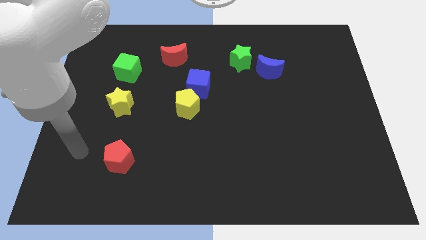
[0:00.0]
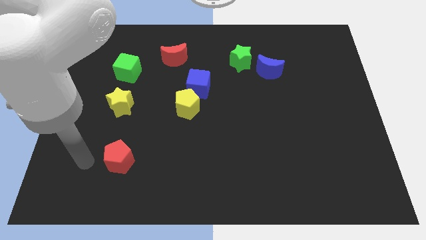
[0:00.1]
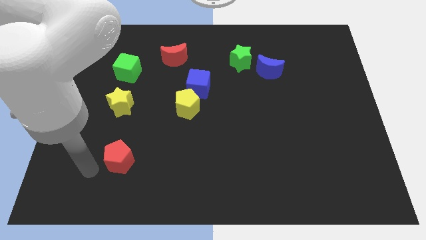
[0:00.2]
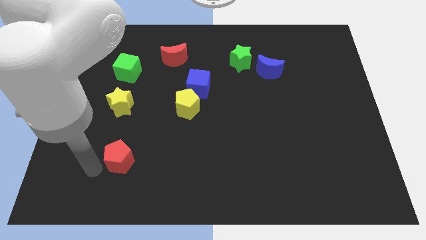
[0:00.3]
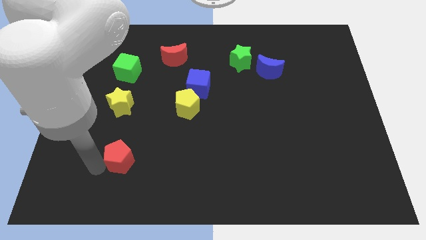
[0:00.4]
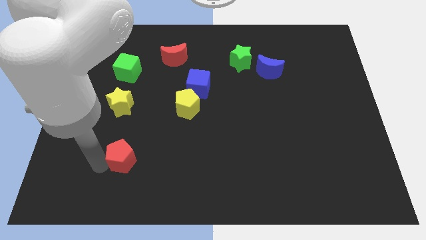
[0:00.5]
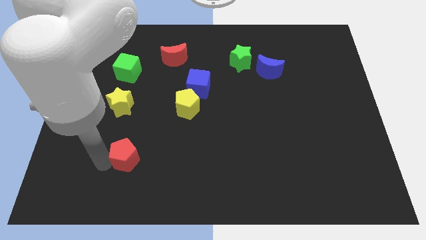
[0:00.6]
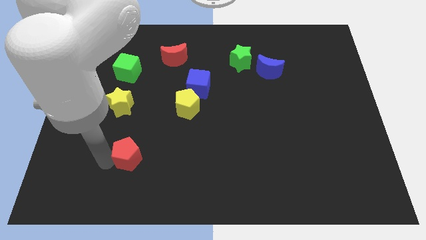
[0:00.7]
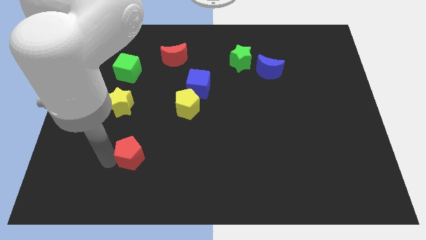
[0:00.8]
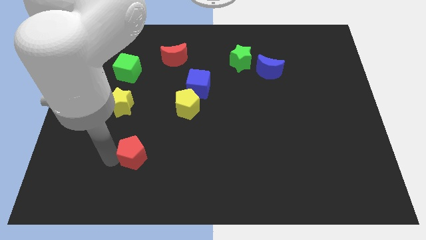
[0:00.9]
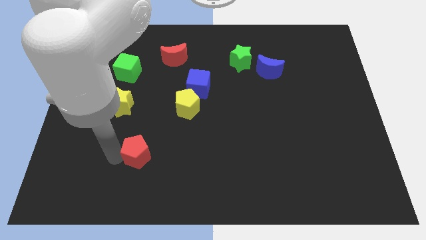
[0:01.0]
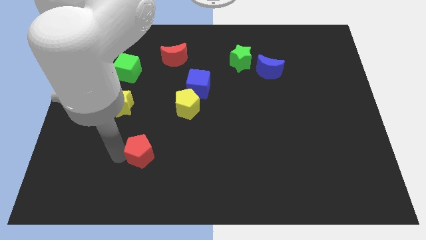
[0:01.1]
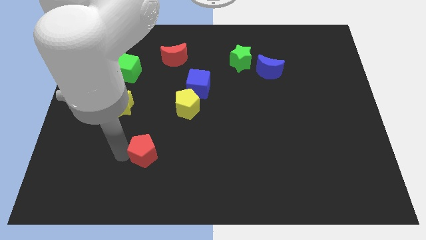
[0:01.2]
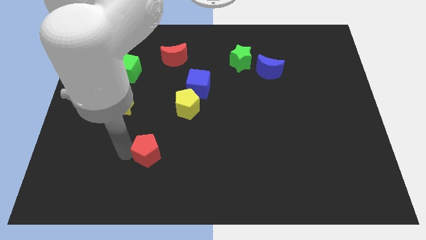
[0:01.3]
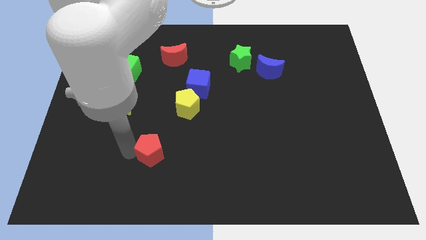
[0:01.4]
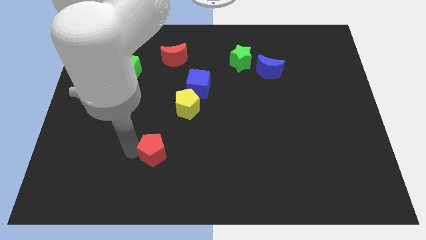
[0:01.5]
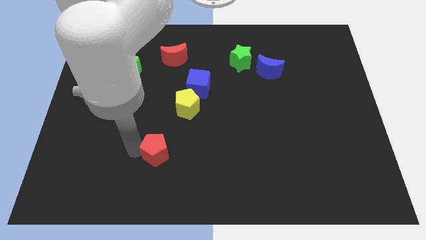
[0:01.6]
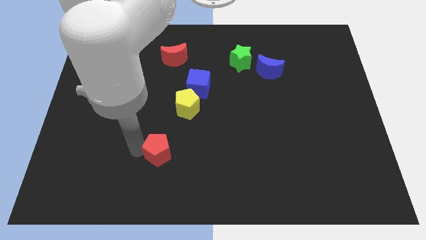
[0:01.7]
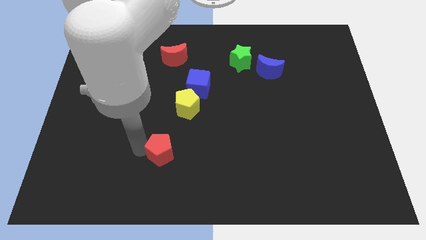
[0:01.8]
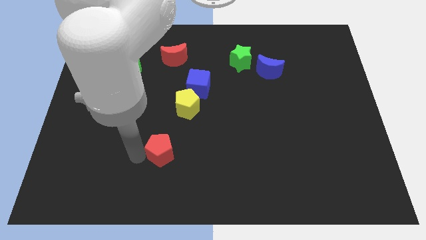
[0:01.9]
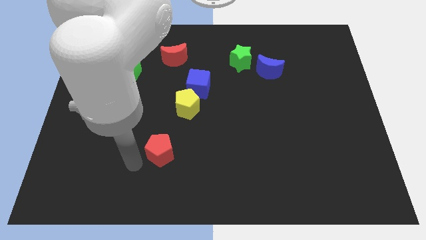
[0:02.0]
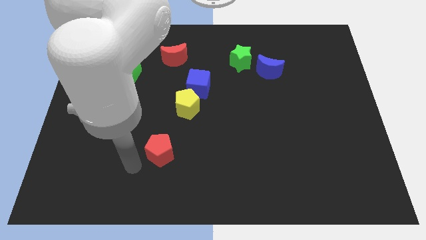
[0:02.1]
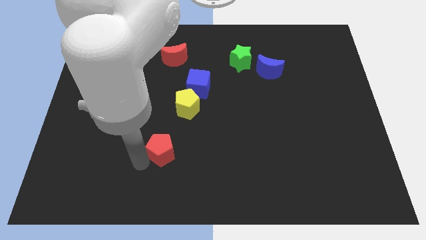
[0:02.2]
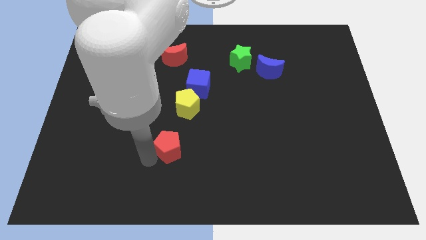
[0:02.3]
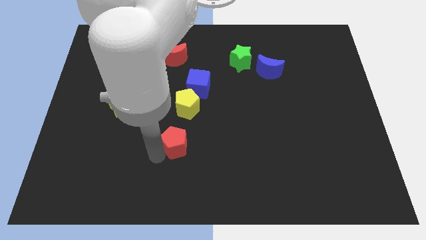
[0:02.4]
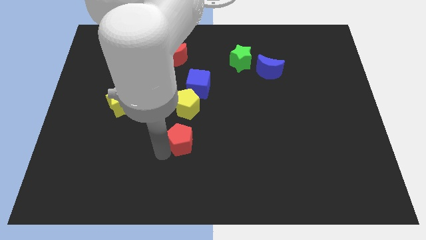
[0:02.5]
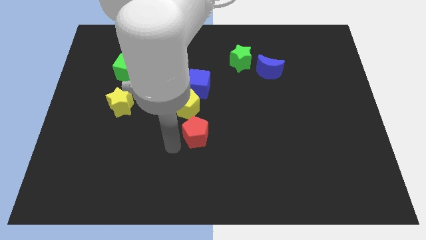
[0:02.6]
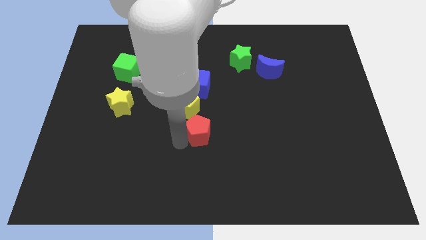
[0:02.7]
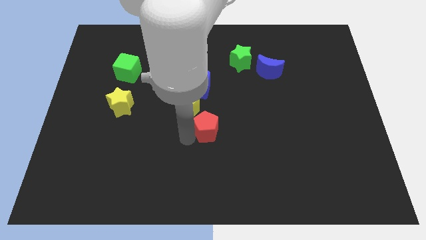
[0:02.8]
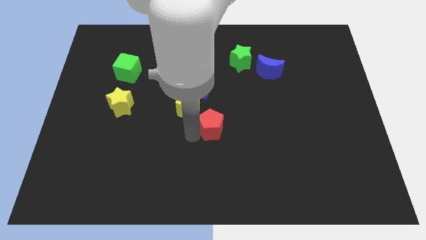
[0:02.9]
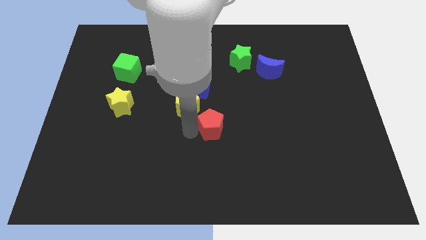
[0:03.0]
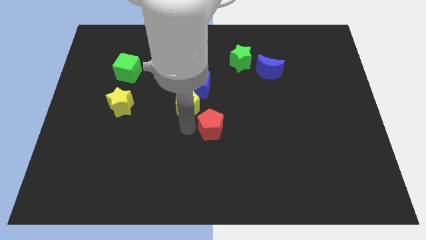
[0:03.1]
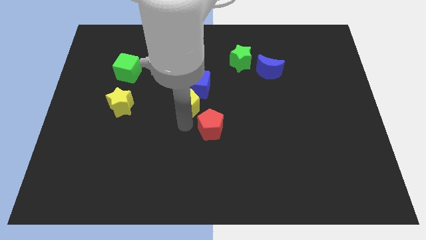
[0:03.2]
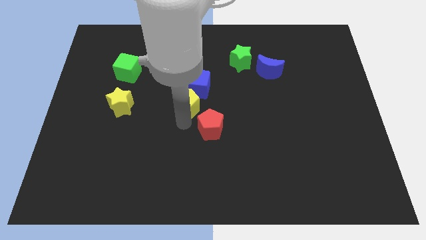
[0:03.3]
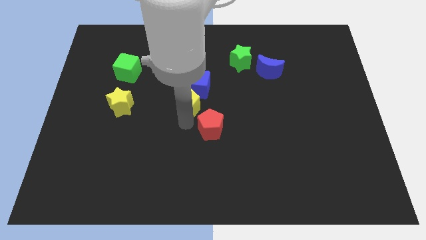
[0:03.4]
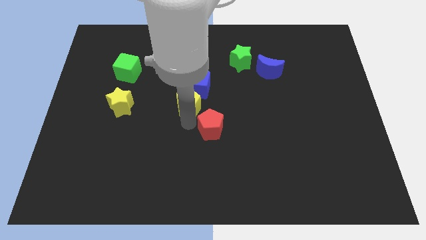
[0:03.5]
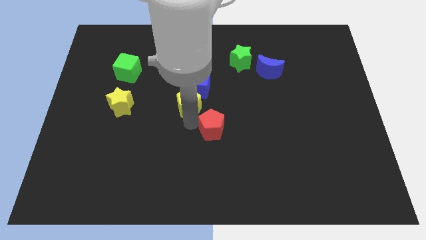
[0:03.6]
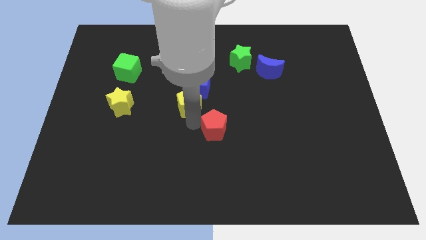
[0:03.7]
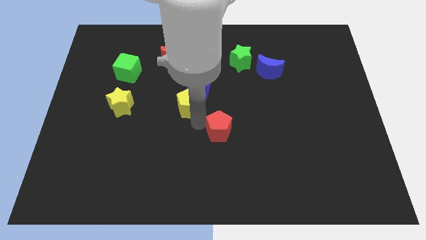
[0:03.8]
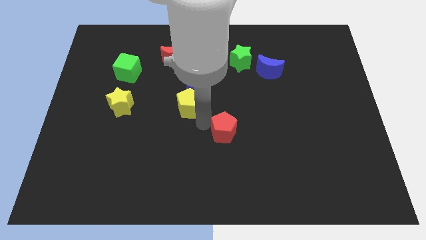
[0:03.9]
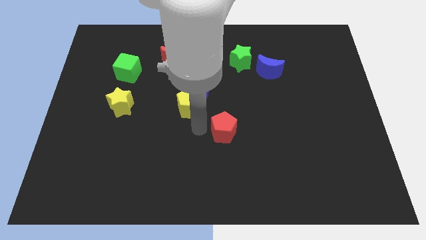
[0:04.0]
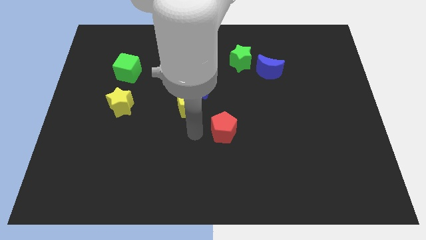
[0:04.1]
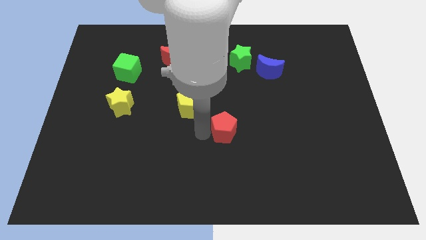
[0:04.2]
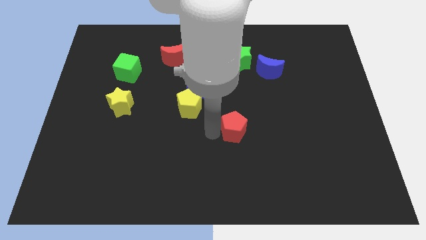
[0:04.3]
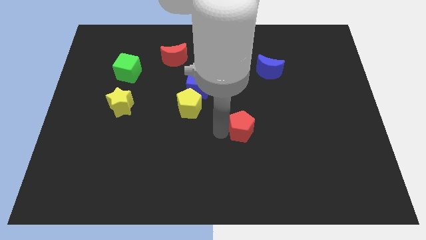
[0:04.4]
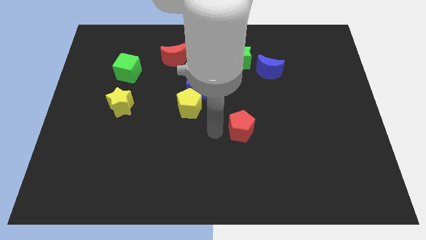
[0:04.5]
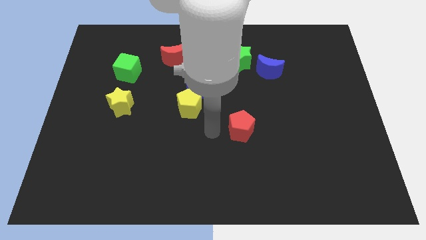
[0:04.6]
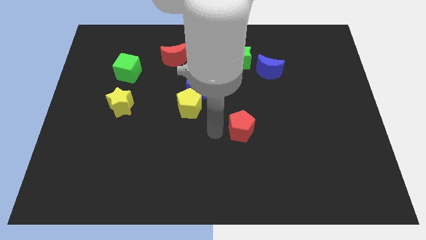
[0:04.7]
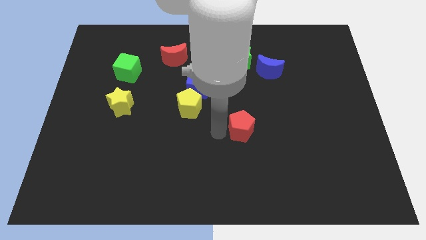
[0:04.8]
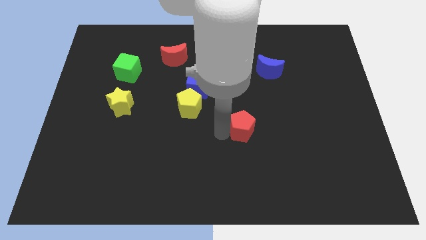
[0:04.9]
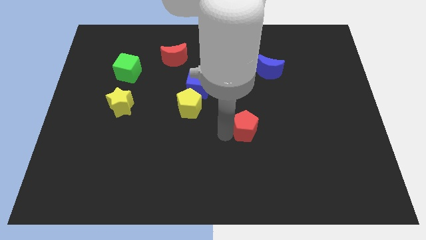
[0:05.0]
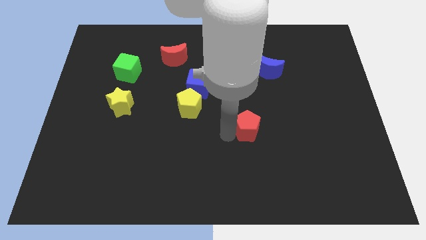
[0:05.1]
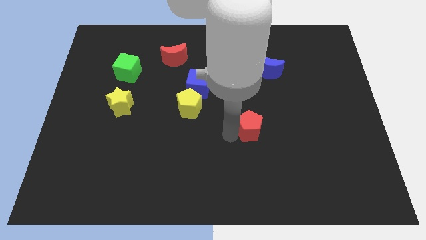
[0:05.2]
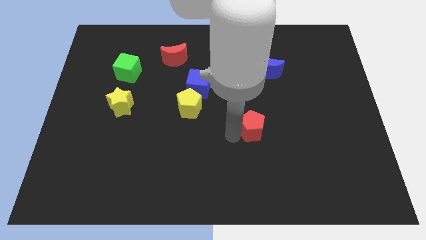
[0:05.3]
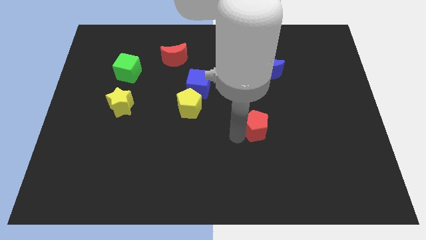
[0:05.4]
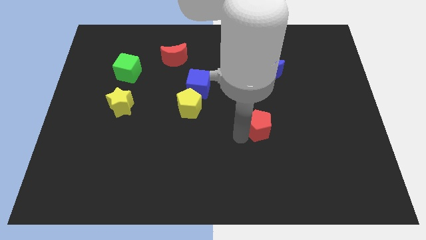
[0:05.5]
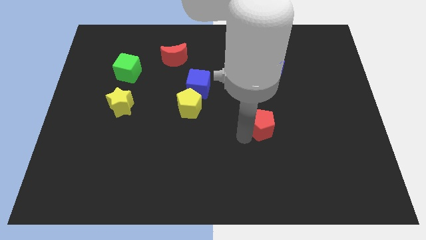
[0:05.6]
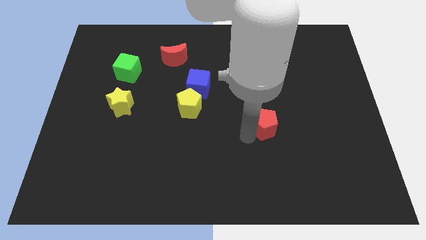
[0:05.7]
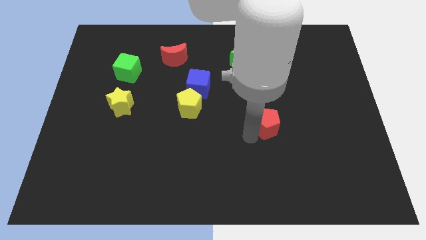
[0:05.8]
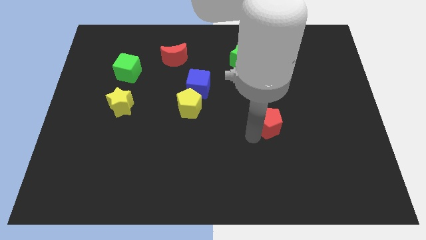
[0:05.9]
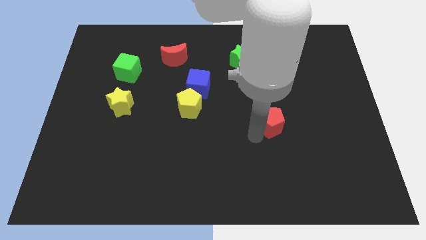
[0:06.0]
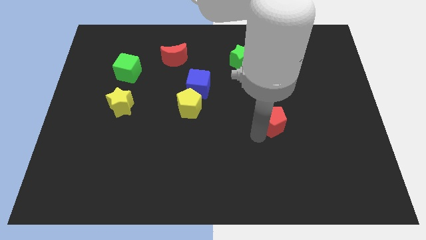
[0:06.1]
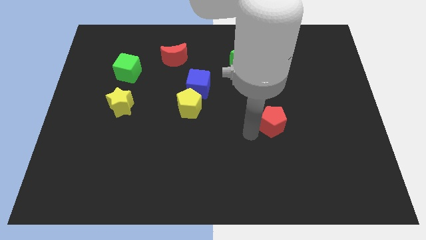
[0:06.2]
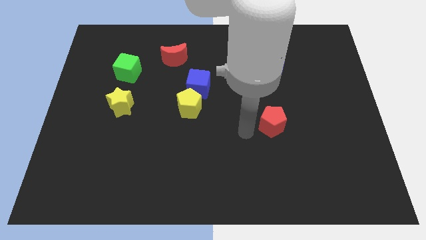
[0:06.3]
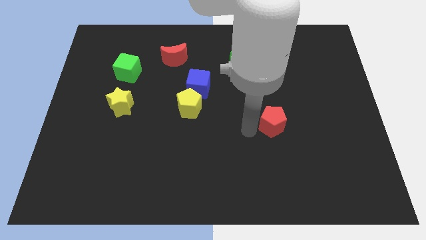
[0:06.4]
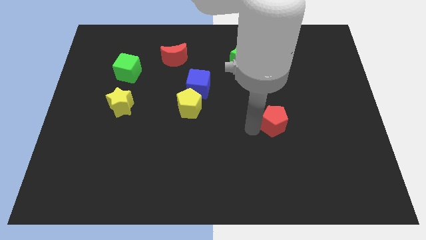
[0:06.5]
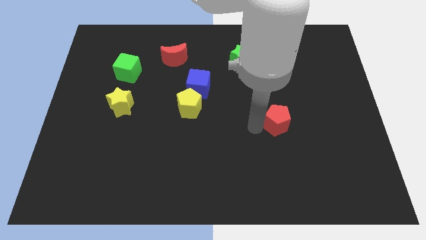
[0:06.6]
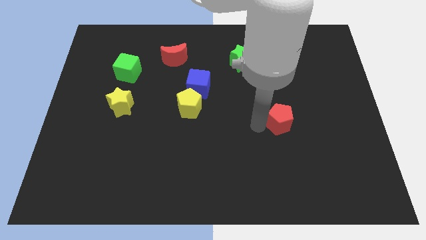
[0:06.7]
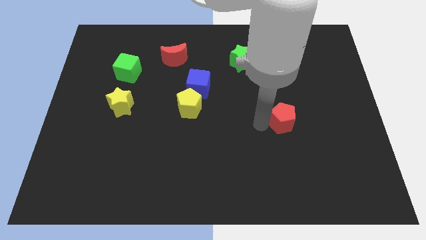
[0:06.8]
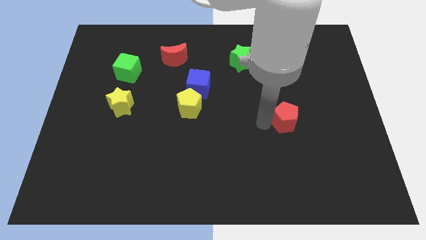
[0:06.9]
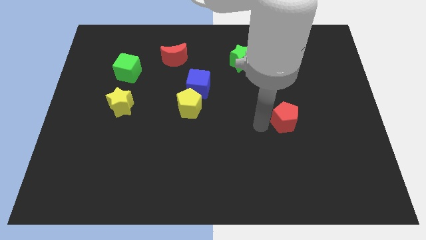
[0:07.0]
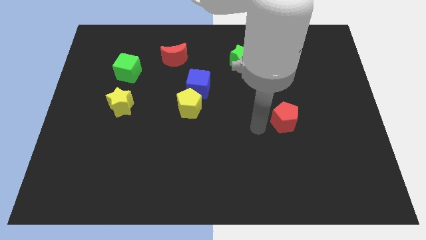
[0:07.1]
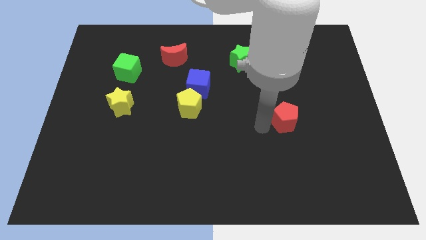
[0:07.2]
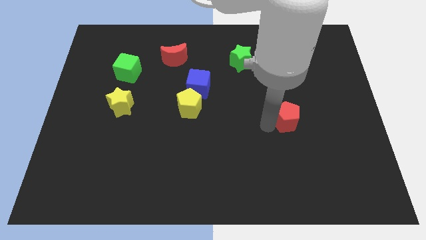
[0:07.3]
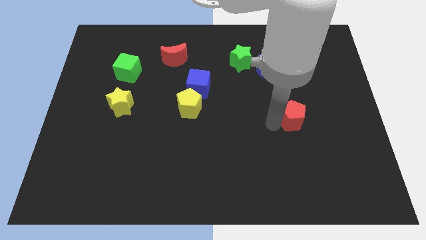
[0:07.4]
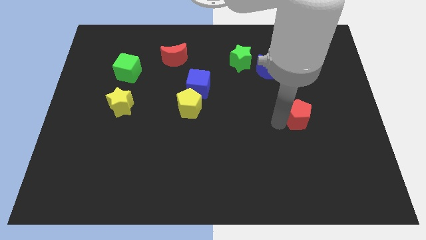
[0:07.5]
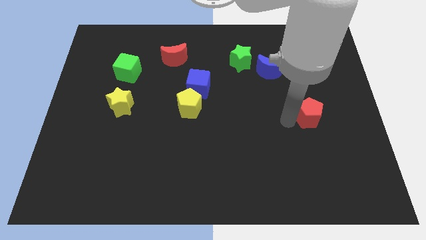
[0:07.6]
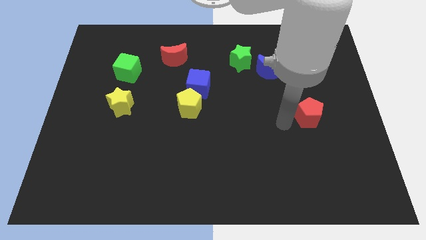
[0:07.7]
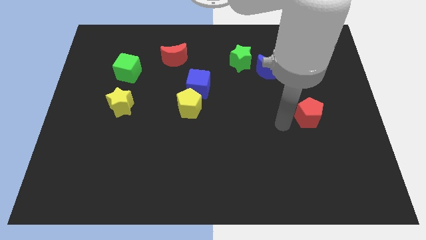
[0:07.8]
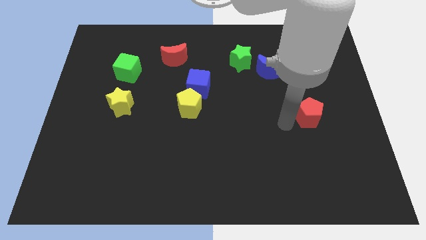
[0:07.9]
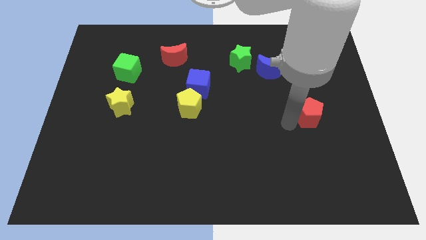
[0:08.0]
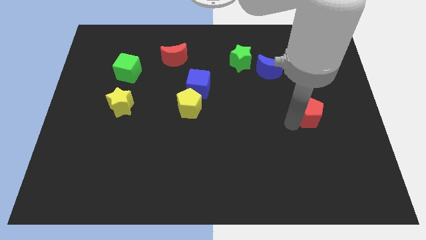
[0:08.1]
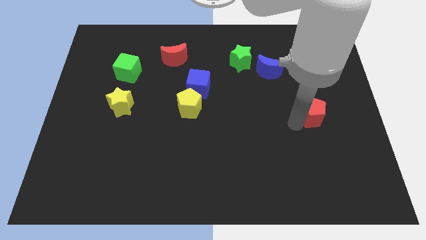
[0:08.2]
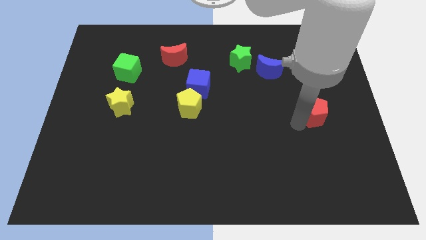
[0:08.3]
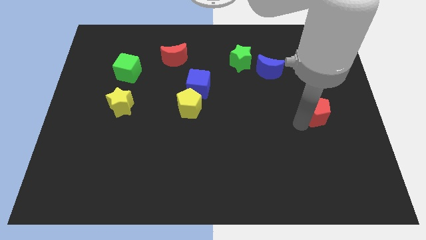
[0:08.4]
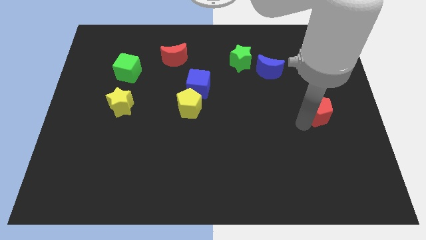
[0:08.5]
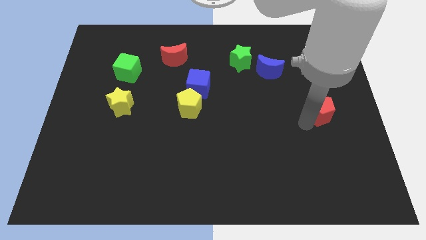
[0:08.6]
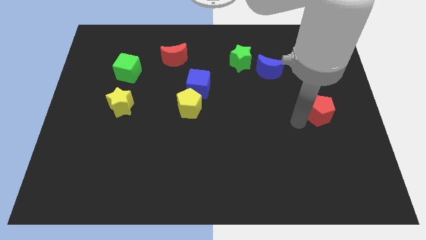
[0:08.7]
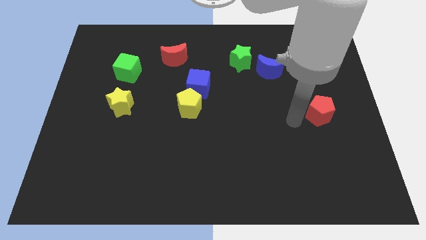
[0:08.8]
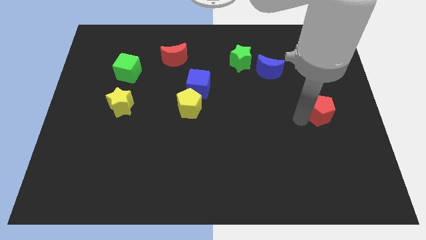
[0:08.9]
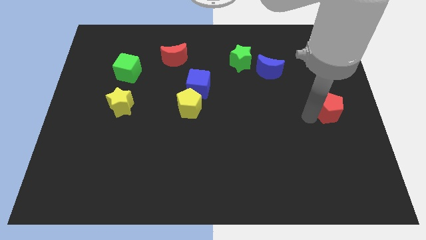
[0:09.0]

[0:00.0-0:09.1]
move the red pentagon to the center right
